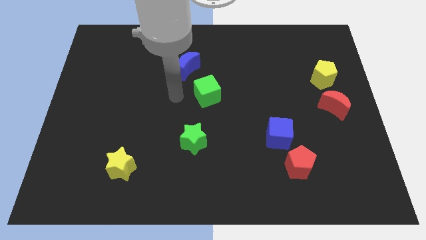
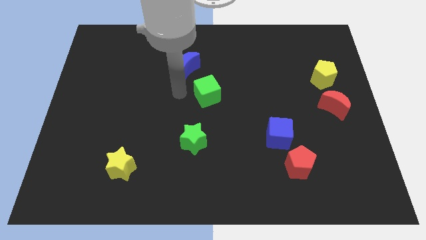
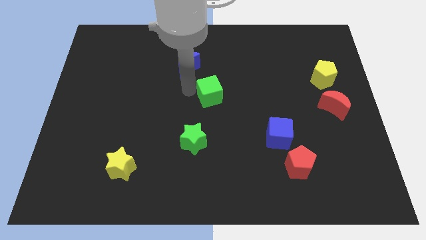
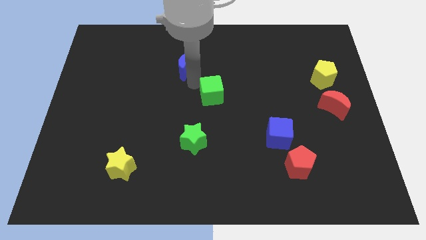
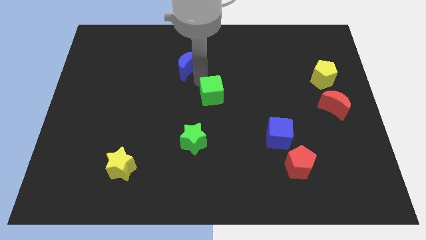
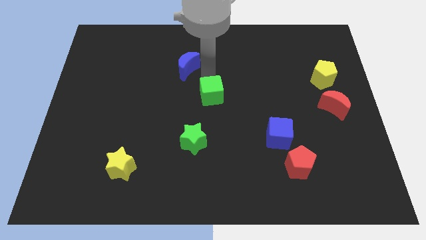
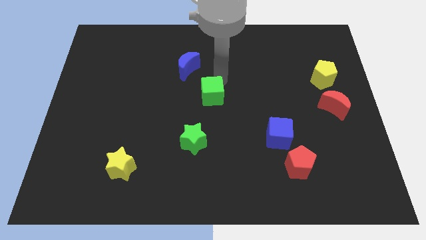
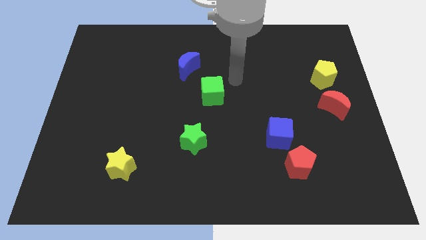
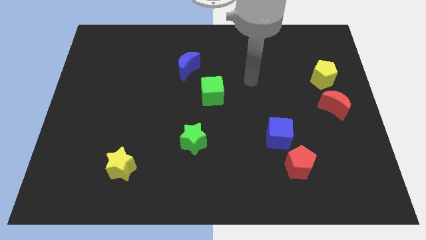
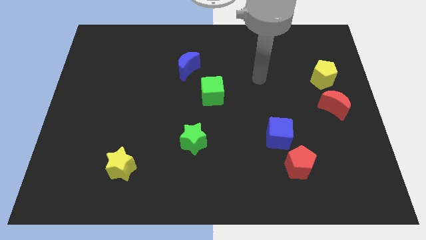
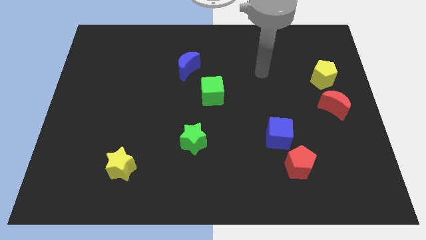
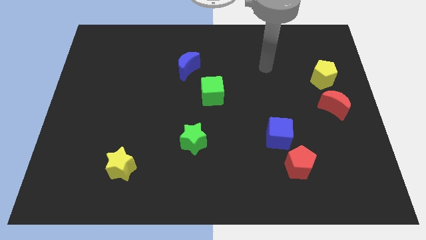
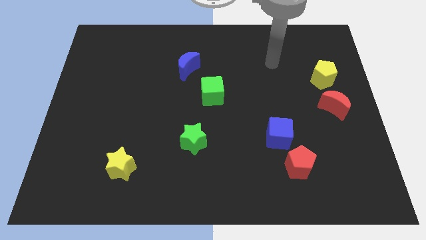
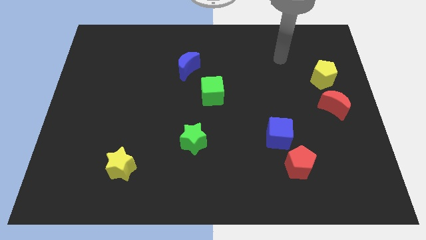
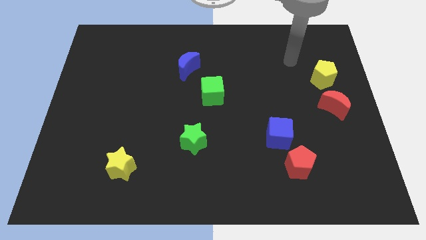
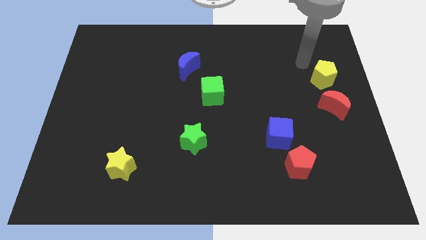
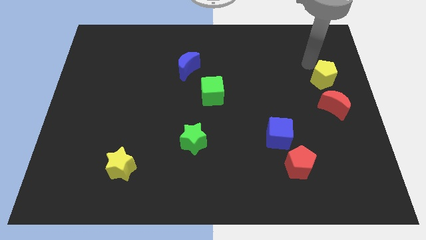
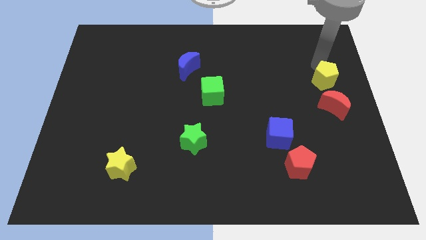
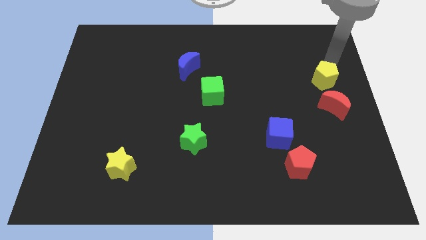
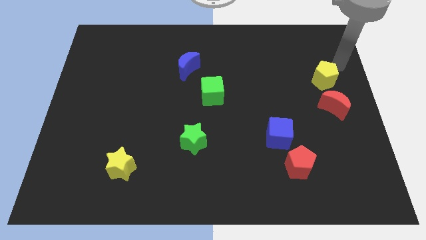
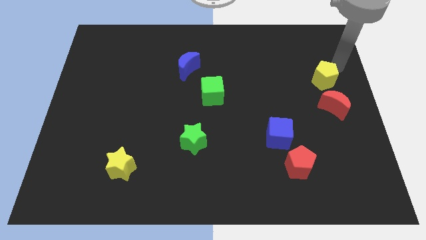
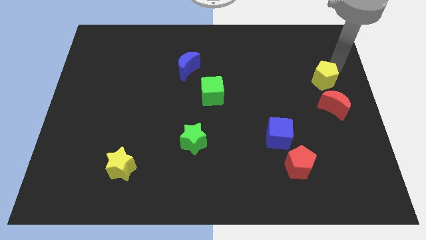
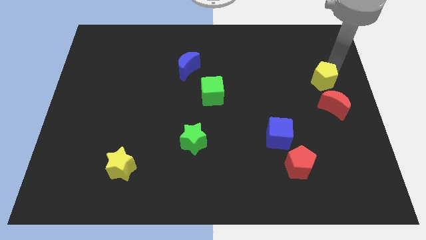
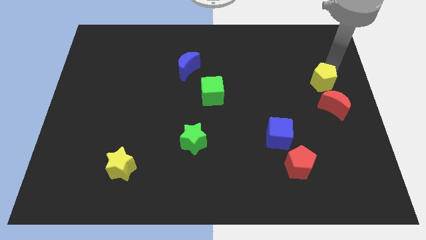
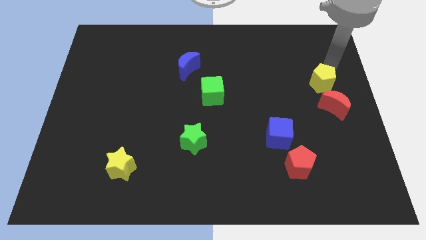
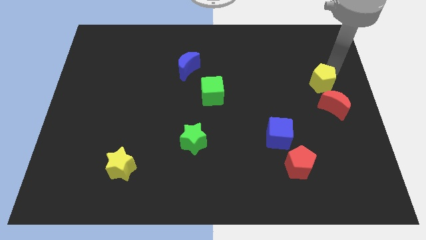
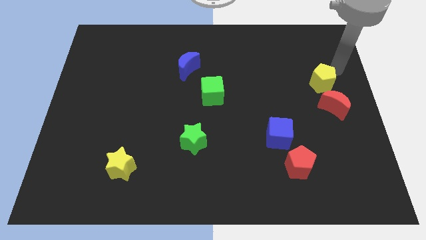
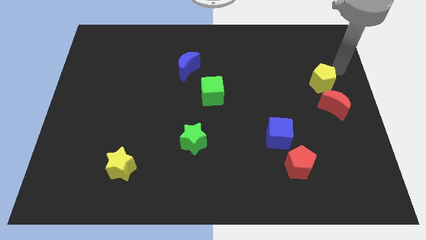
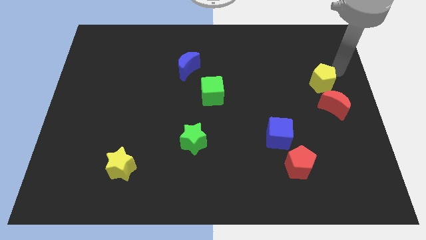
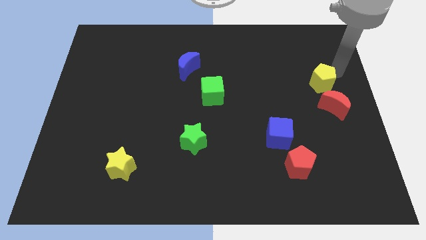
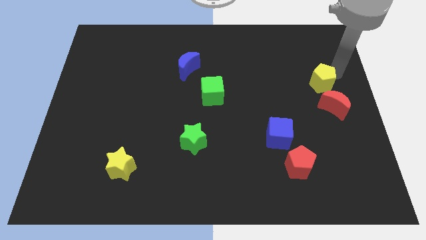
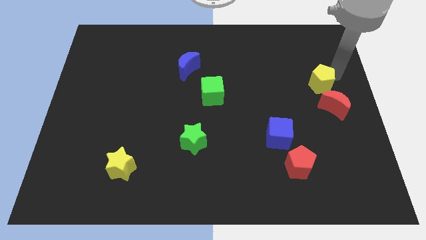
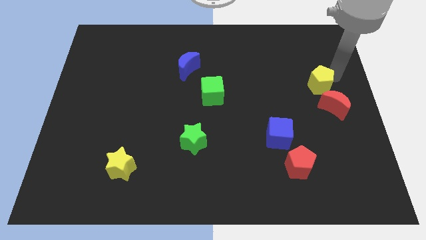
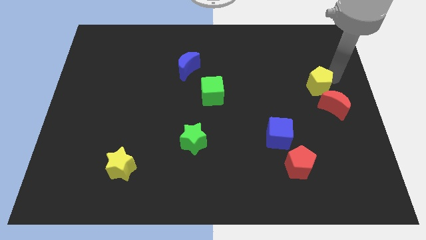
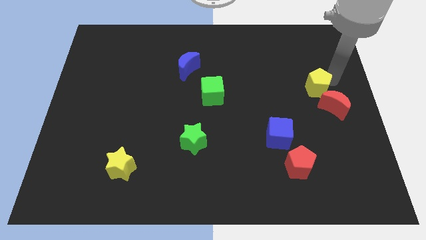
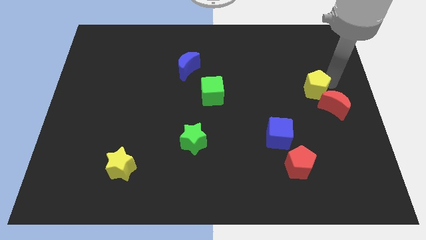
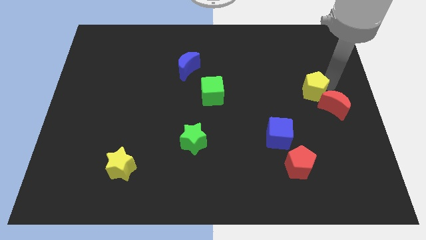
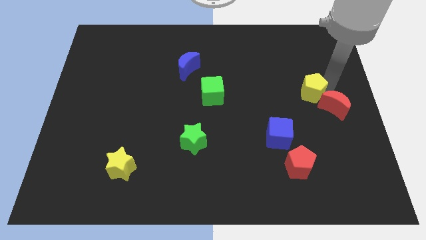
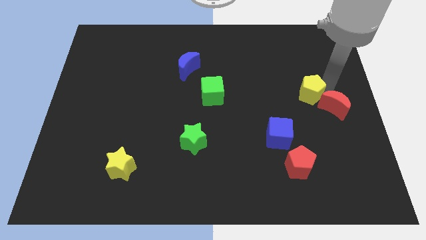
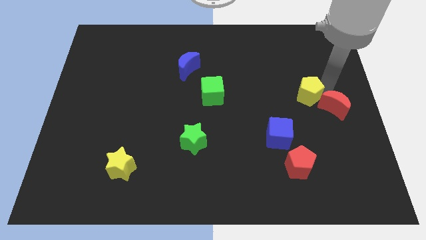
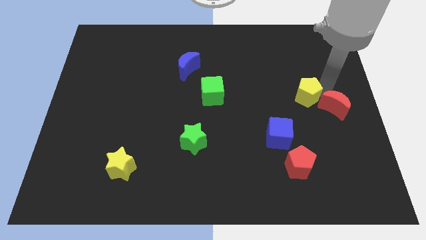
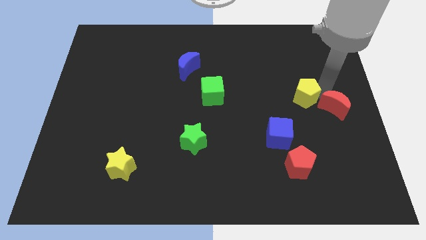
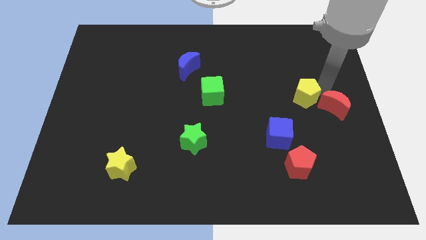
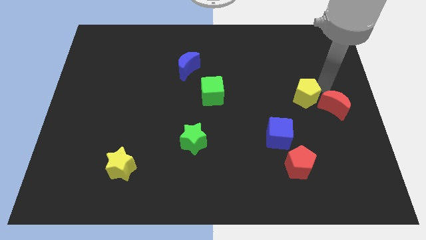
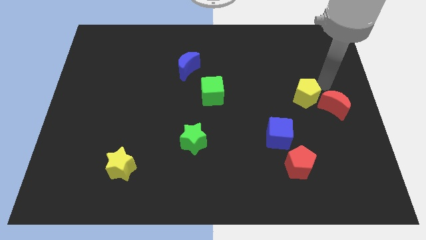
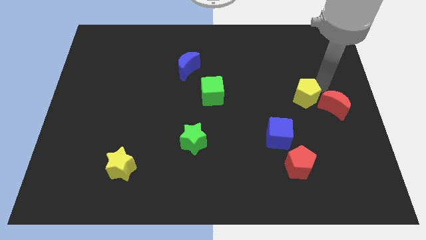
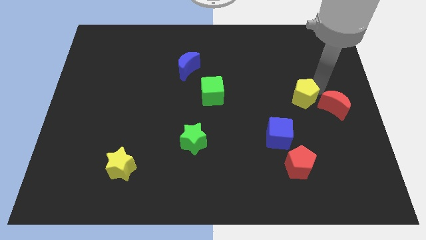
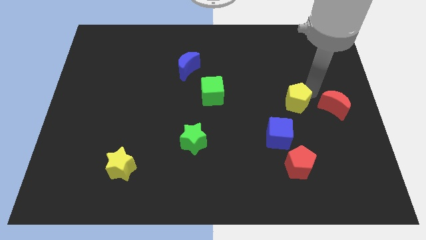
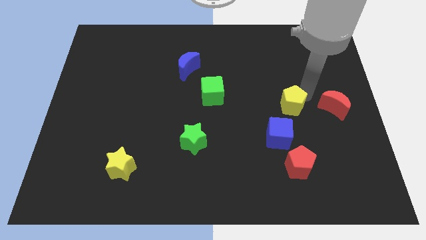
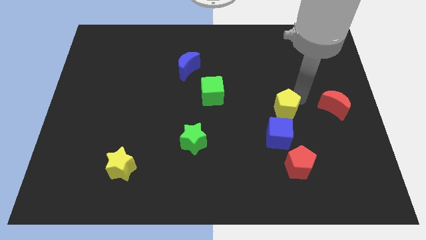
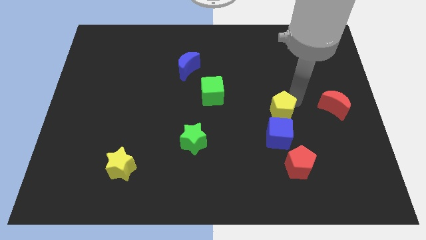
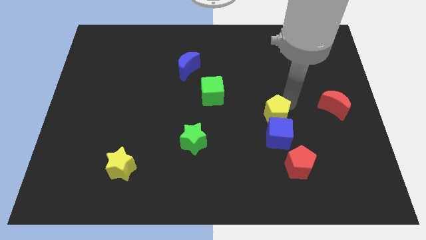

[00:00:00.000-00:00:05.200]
push the yellow pentagon towards the blue cube

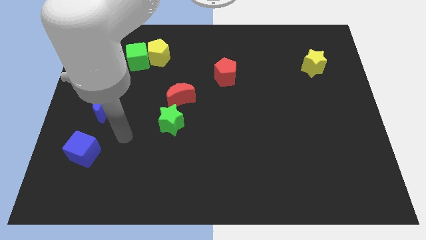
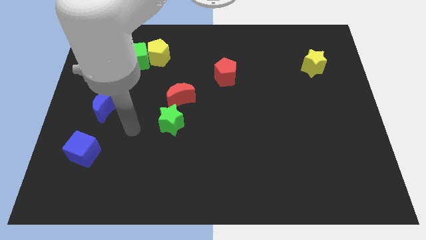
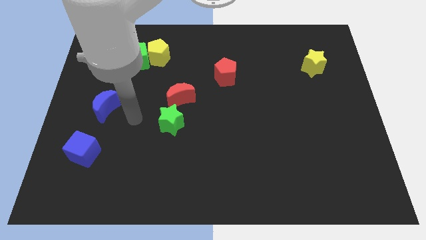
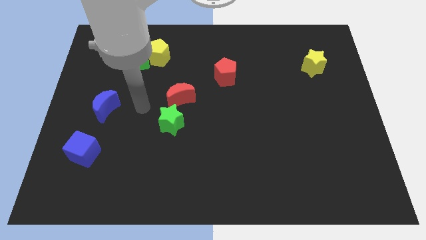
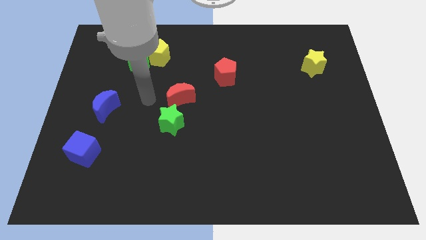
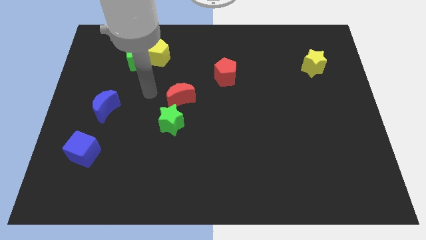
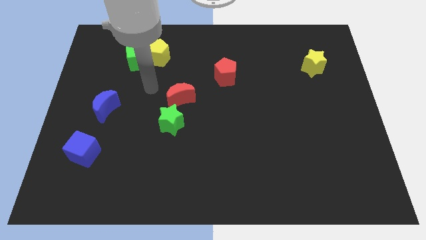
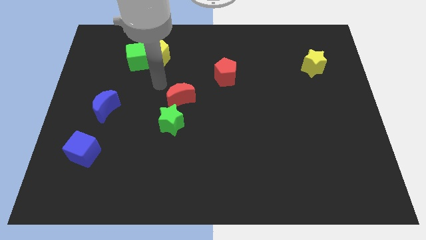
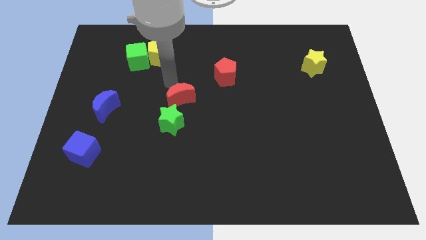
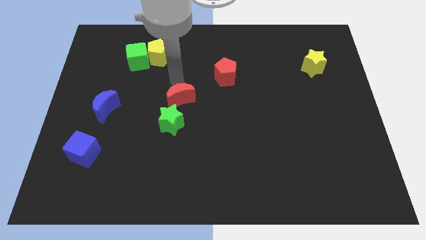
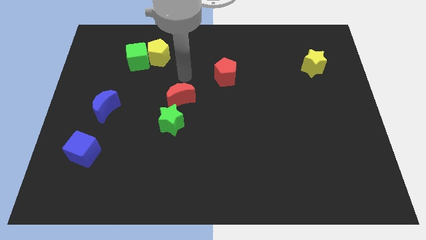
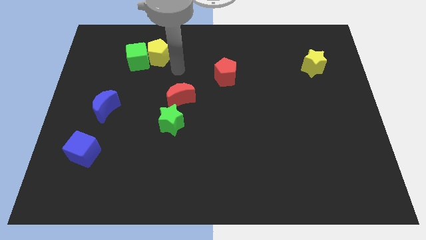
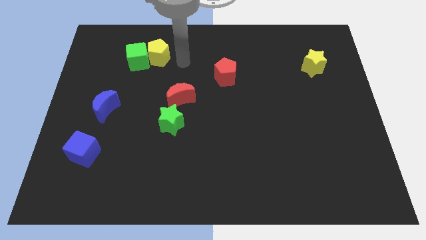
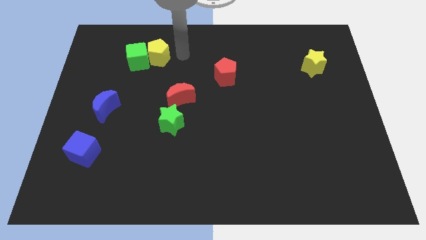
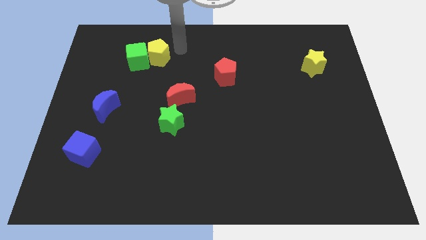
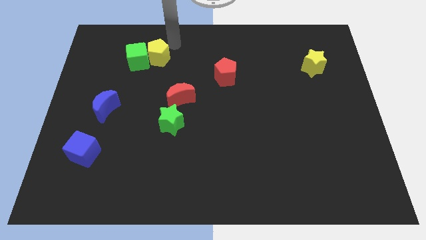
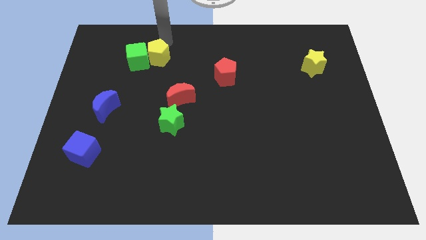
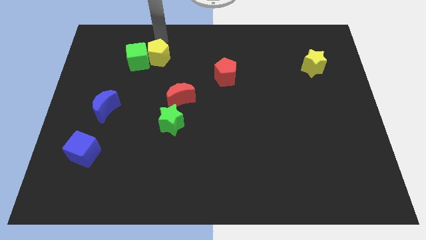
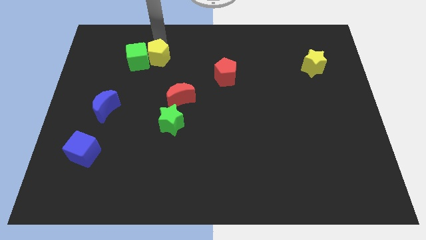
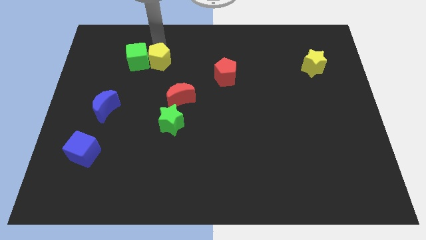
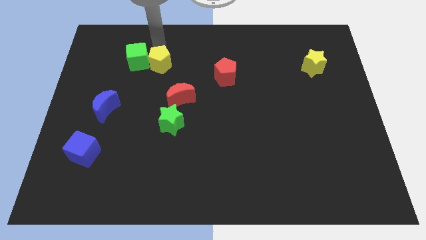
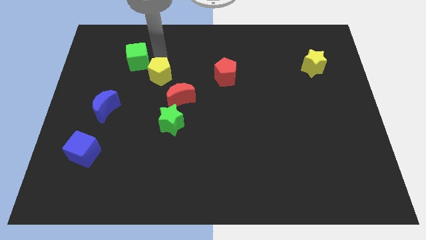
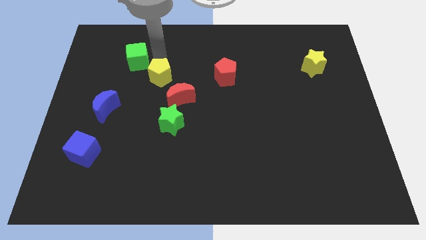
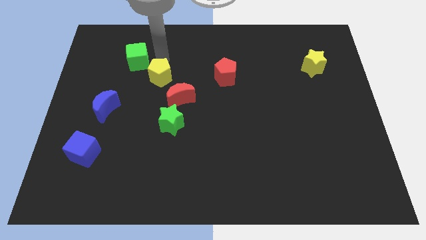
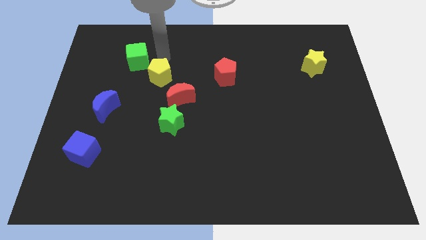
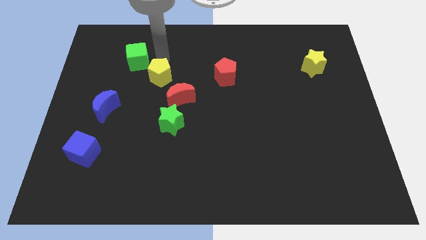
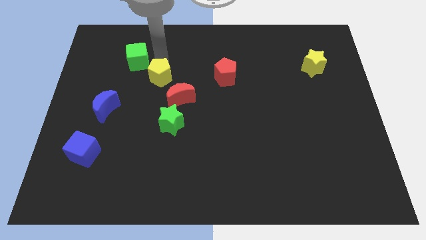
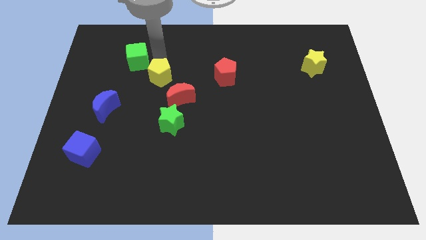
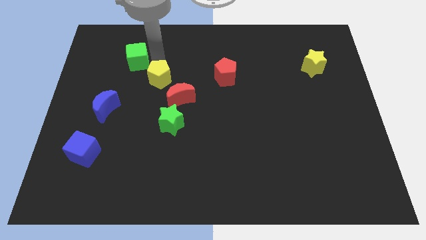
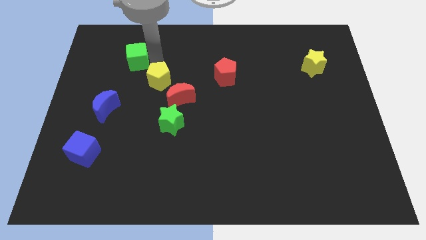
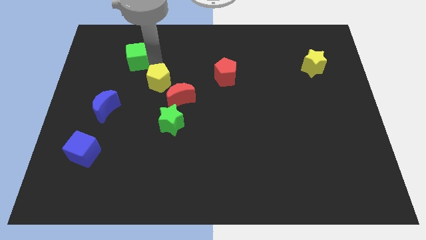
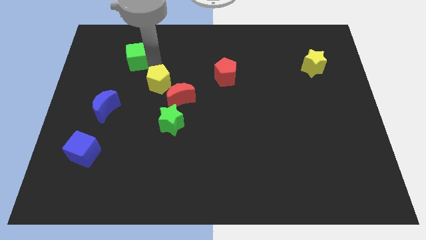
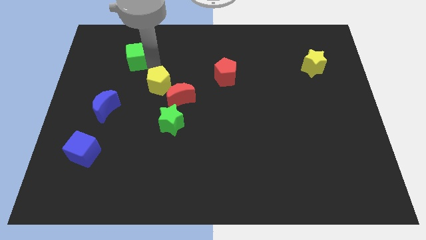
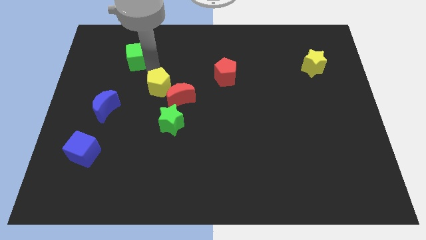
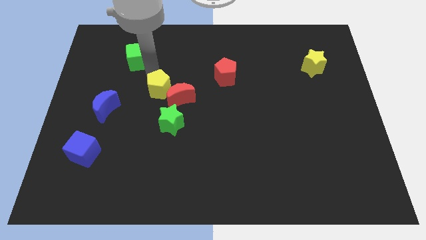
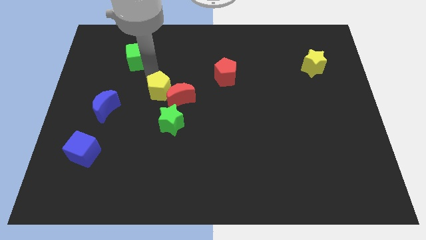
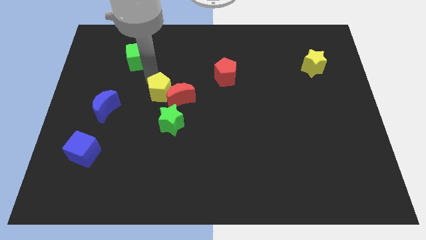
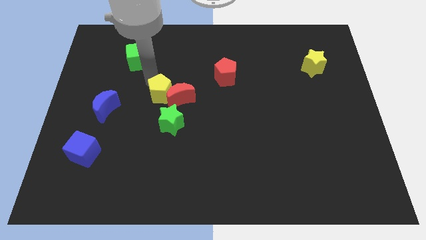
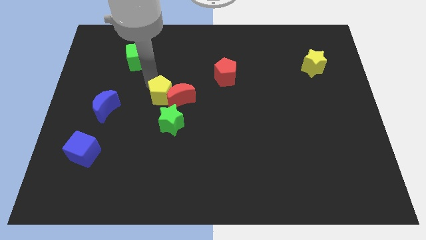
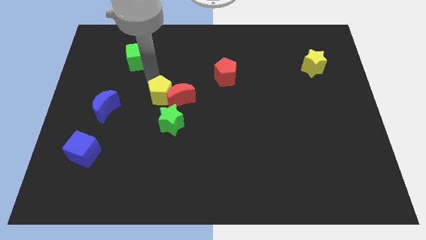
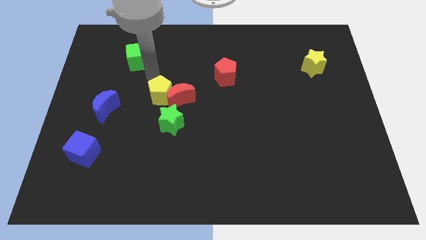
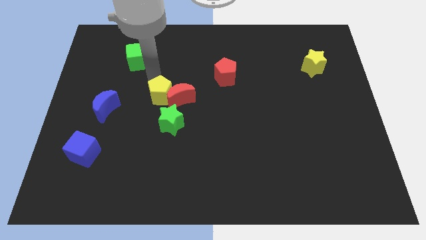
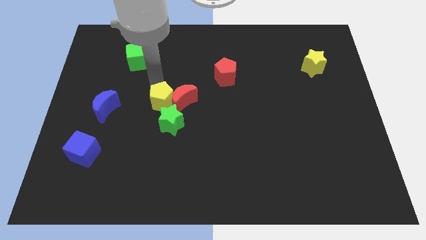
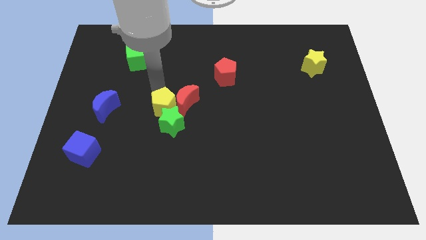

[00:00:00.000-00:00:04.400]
move the yellow pentagon towards the green star
